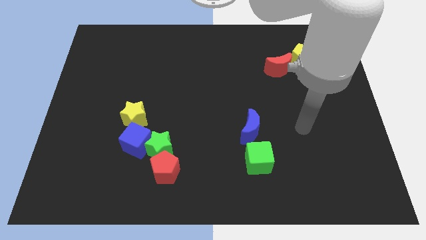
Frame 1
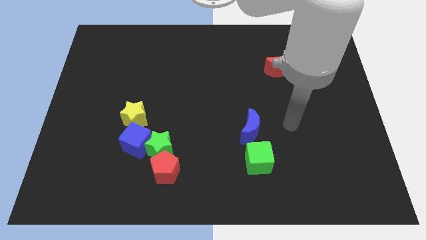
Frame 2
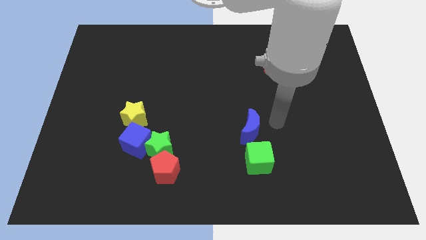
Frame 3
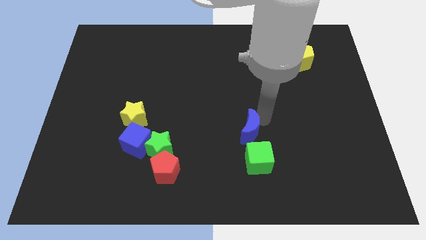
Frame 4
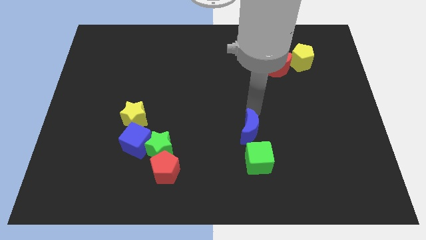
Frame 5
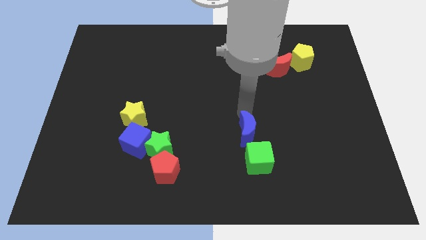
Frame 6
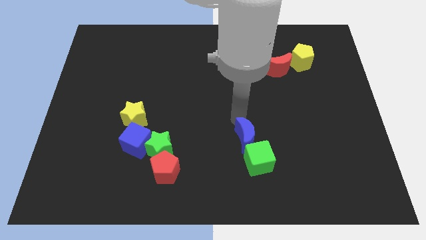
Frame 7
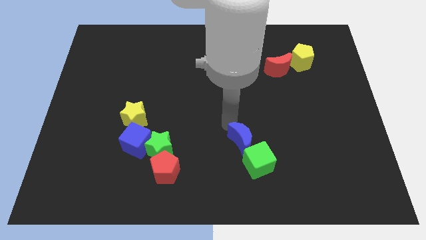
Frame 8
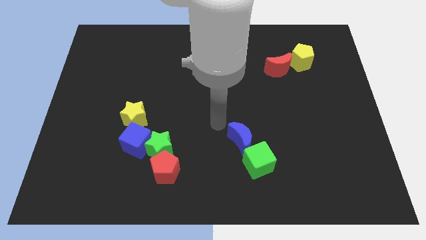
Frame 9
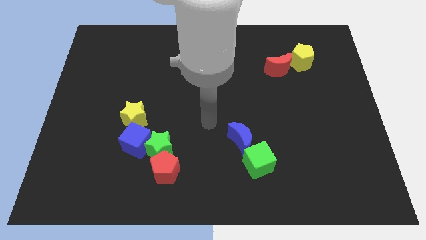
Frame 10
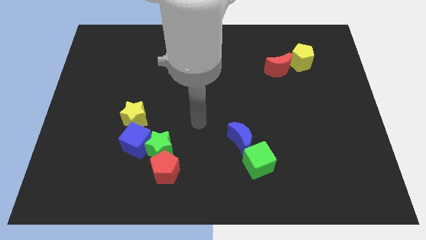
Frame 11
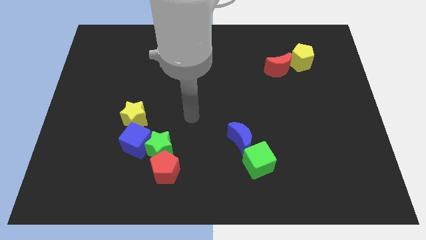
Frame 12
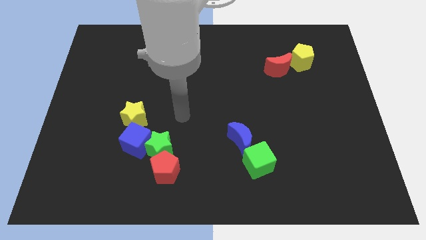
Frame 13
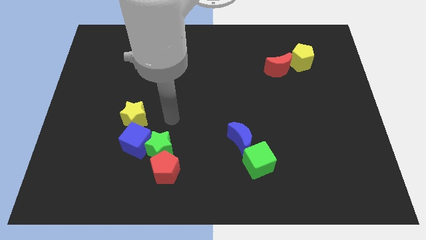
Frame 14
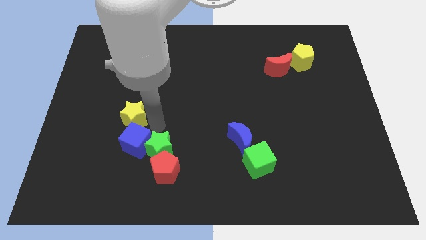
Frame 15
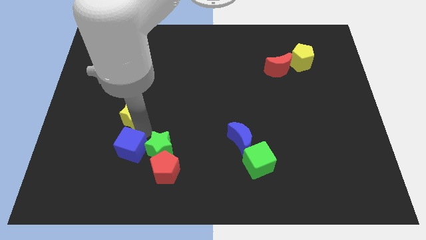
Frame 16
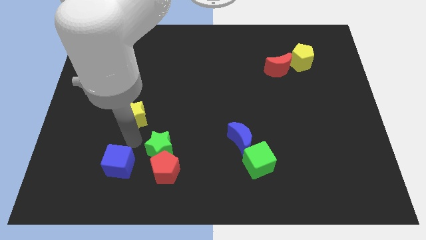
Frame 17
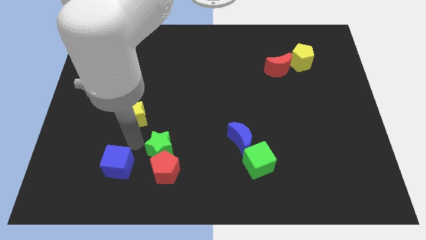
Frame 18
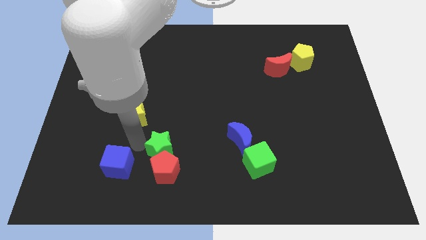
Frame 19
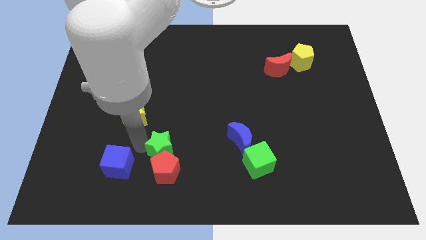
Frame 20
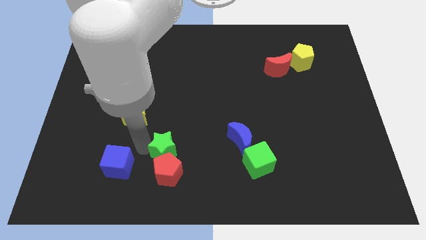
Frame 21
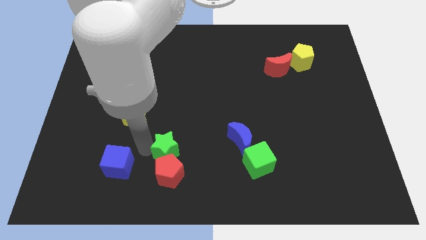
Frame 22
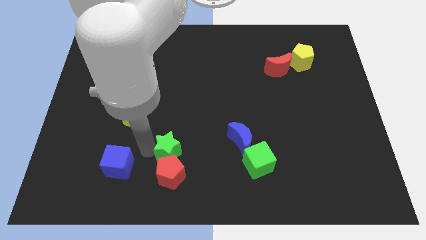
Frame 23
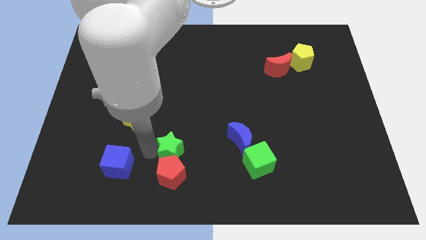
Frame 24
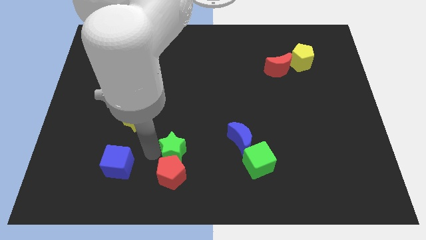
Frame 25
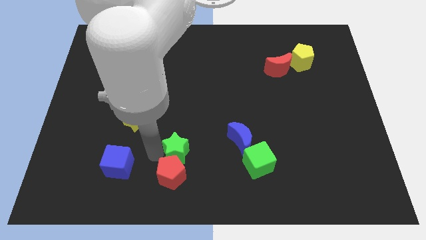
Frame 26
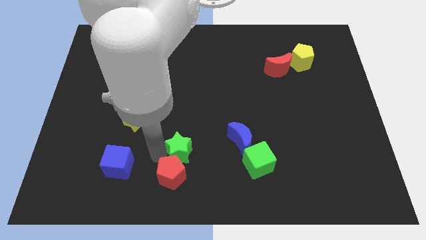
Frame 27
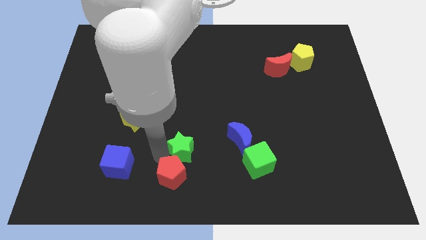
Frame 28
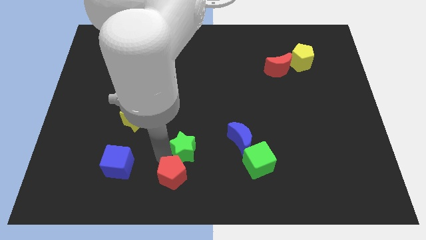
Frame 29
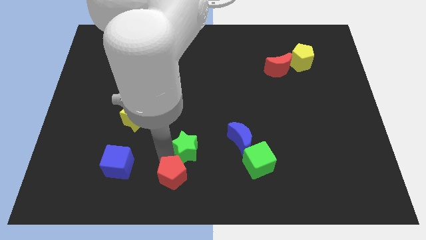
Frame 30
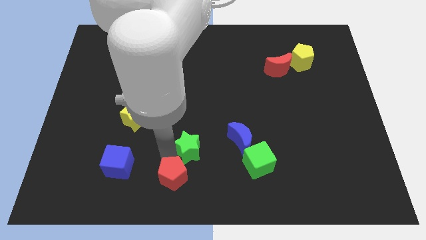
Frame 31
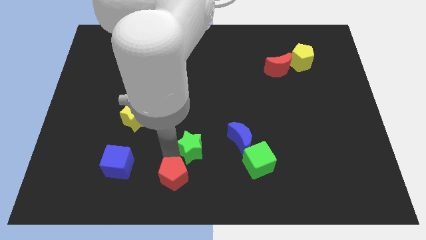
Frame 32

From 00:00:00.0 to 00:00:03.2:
pull the green star apart from the clump

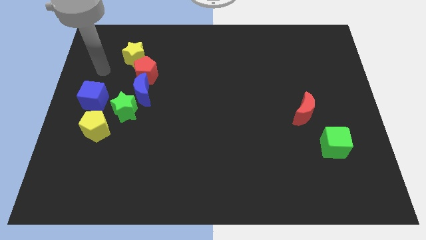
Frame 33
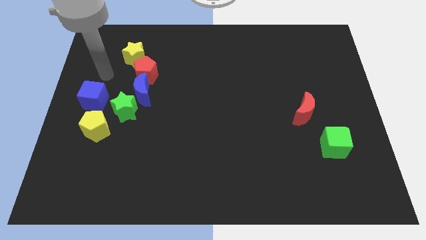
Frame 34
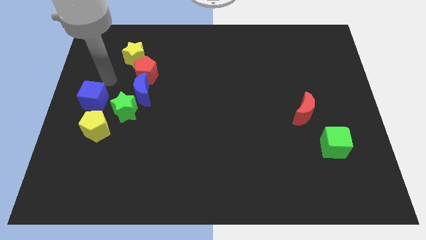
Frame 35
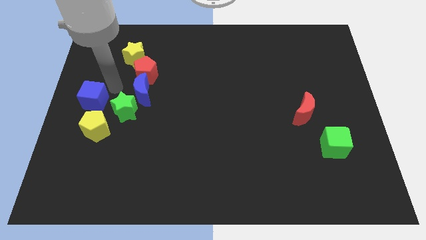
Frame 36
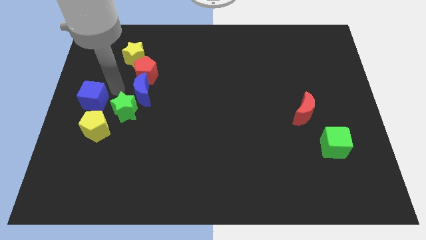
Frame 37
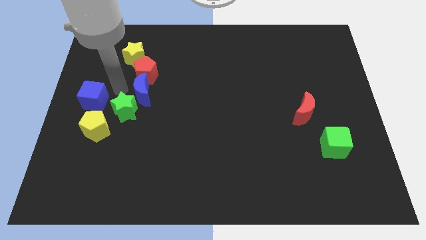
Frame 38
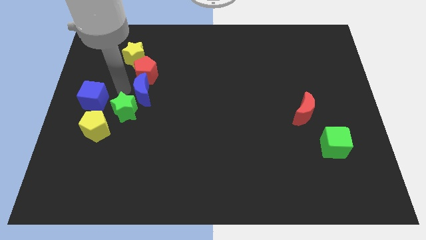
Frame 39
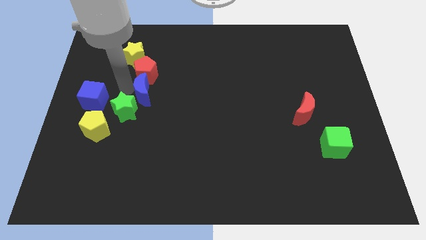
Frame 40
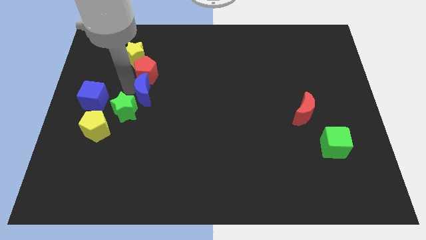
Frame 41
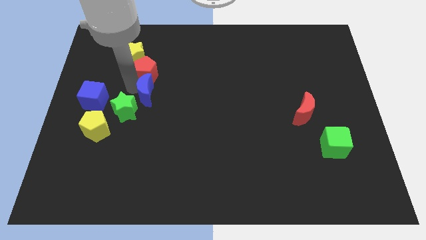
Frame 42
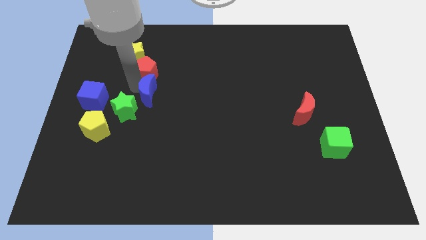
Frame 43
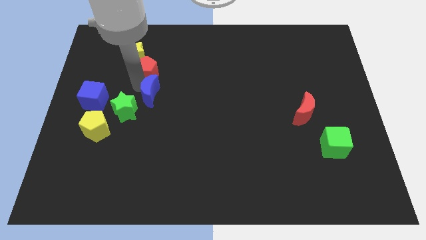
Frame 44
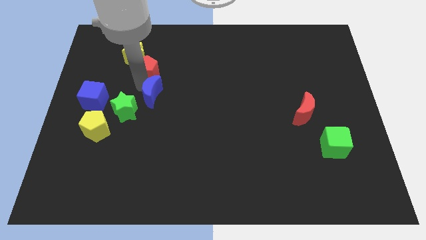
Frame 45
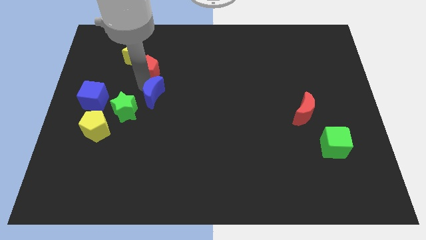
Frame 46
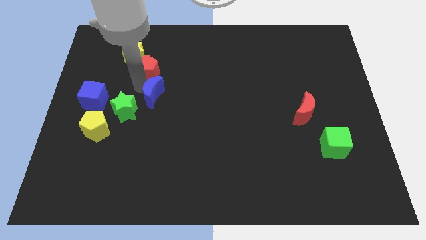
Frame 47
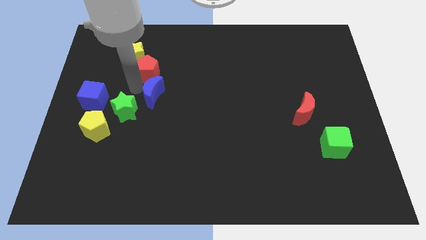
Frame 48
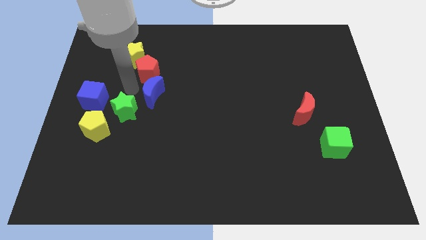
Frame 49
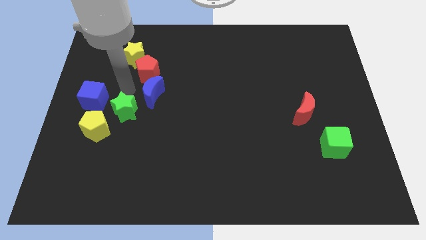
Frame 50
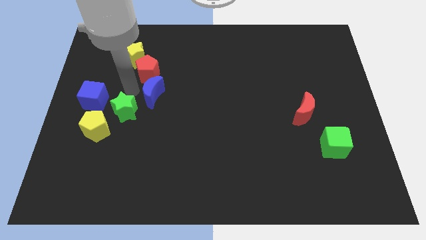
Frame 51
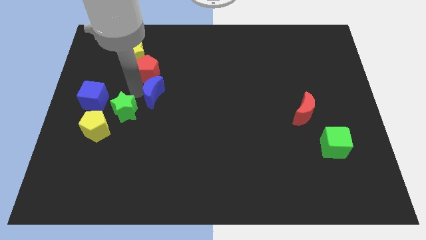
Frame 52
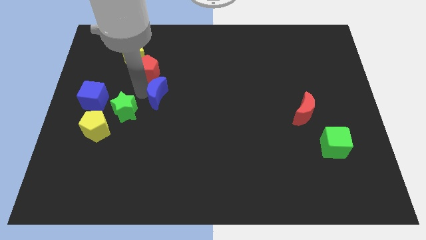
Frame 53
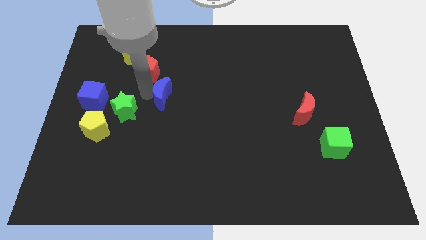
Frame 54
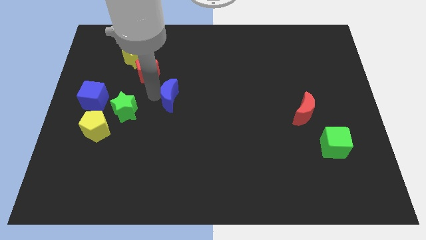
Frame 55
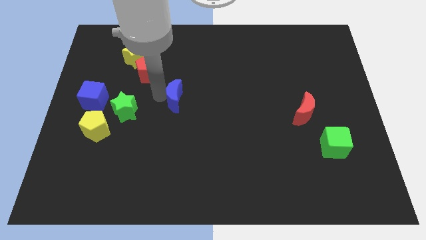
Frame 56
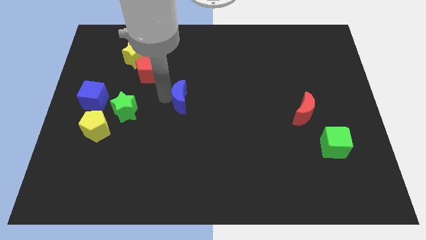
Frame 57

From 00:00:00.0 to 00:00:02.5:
move the blue moon away from the green star and red pentagon

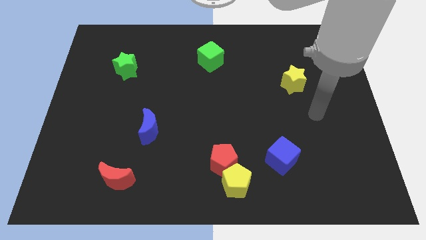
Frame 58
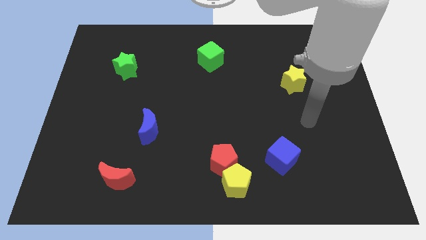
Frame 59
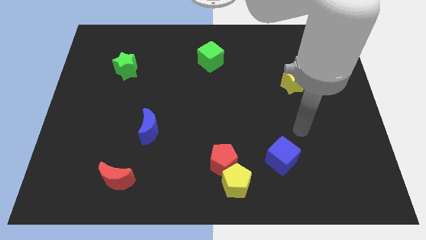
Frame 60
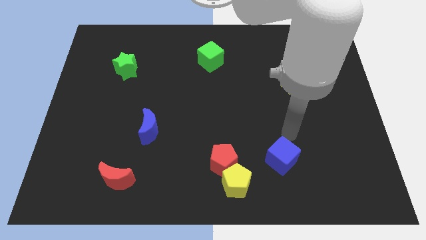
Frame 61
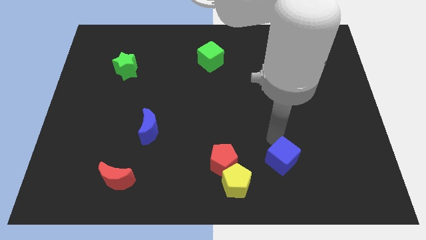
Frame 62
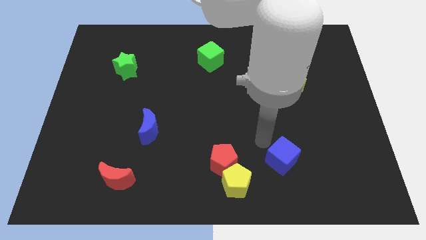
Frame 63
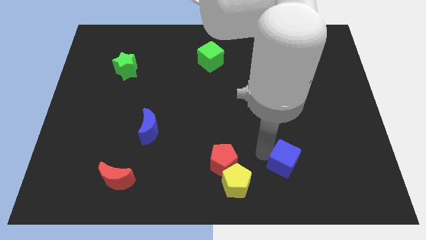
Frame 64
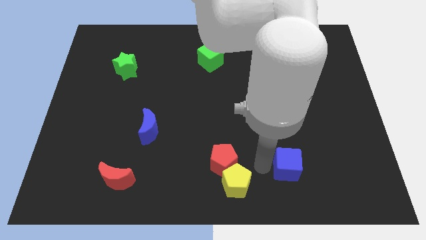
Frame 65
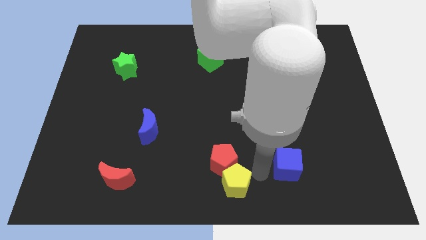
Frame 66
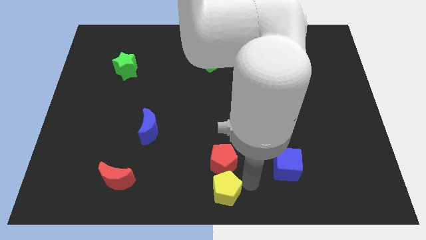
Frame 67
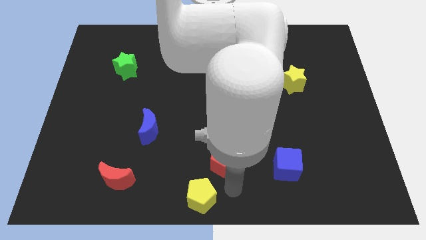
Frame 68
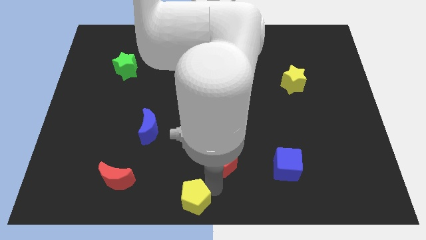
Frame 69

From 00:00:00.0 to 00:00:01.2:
pull the red pentagon apart from the yellow pentagon

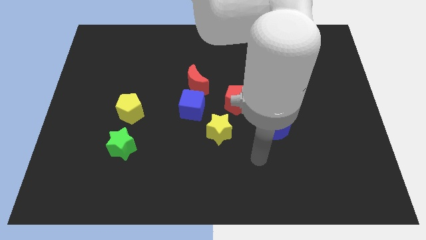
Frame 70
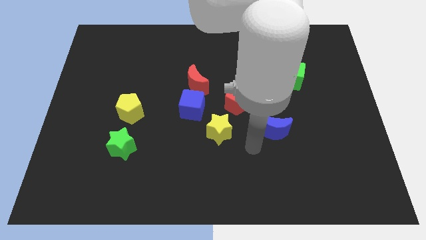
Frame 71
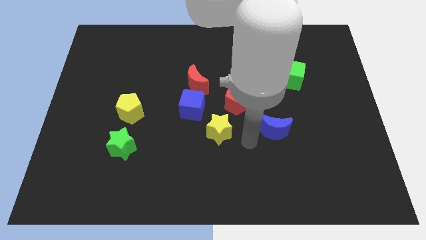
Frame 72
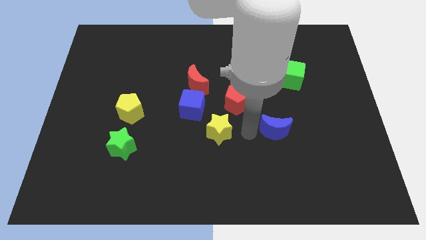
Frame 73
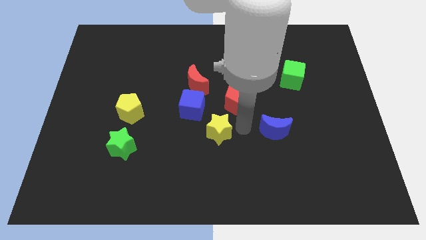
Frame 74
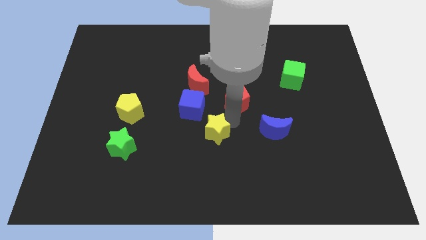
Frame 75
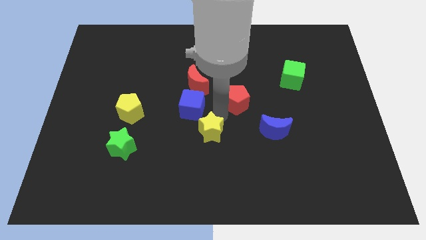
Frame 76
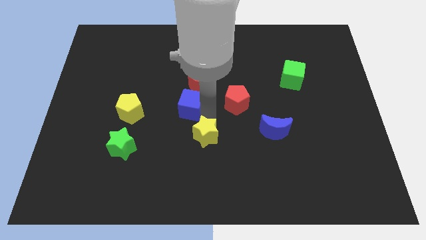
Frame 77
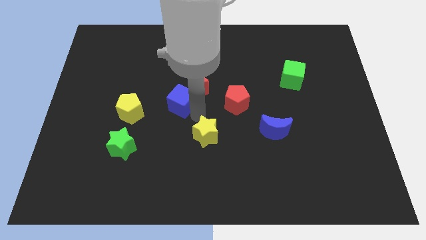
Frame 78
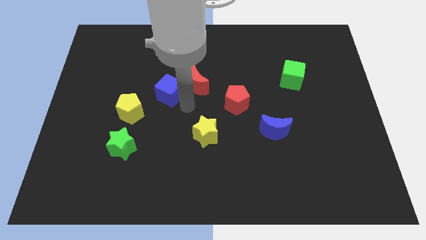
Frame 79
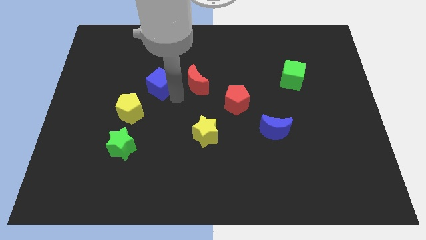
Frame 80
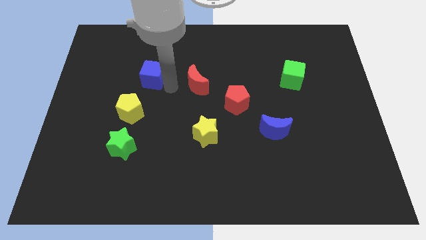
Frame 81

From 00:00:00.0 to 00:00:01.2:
move the red moon away from the blue cube

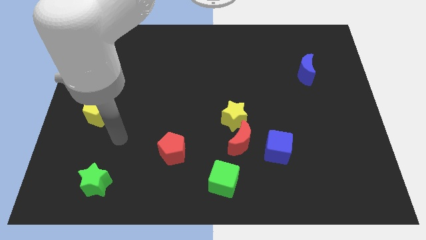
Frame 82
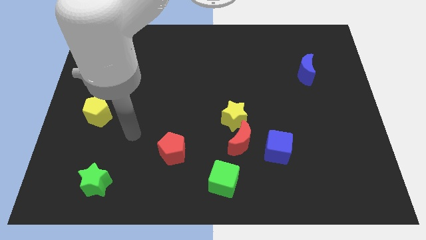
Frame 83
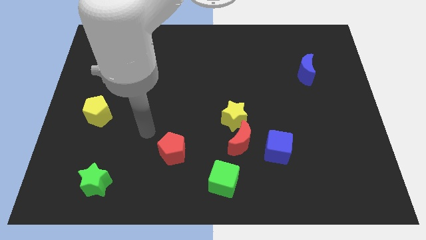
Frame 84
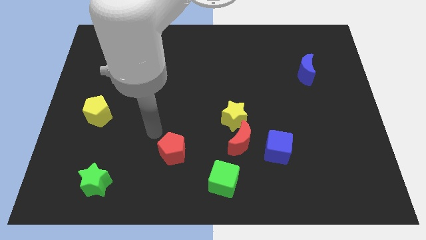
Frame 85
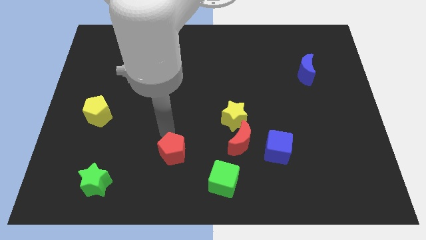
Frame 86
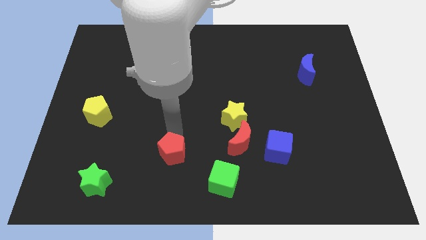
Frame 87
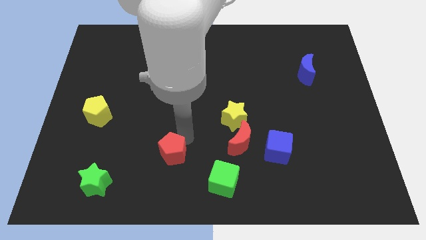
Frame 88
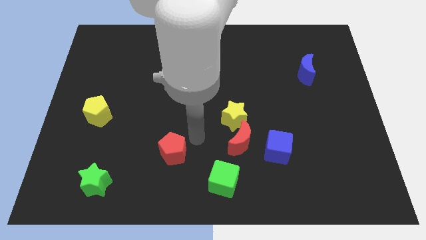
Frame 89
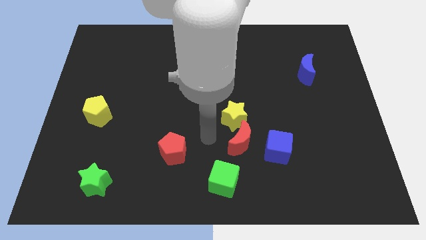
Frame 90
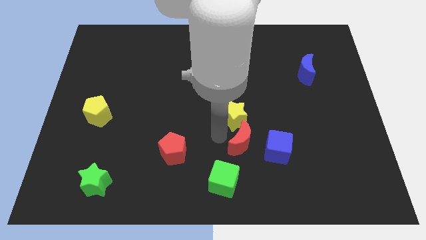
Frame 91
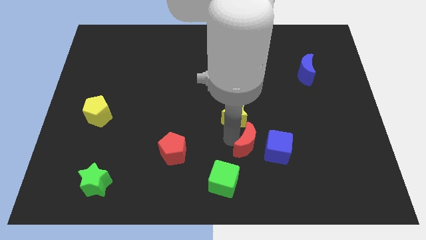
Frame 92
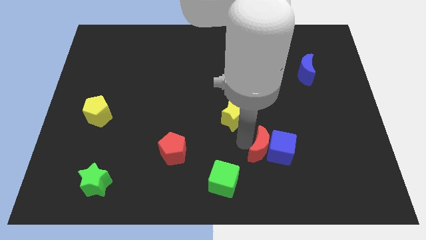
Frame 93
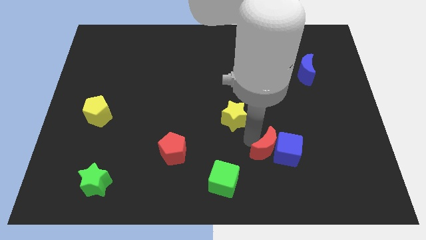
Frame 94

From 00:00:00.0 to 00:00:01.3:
pull the yellow star apart from the red moon
